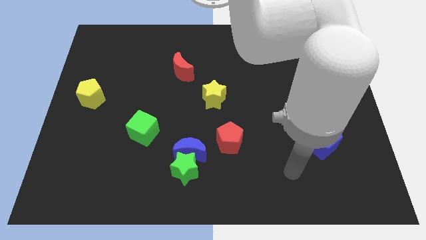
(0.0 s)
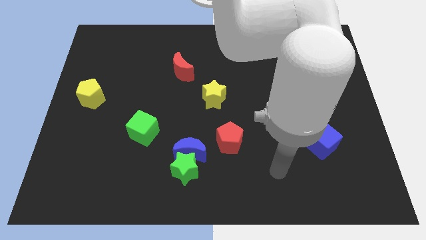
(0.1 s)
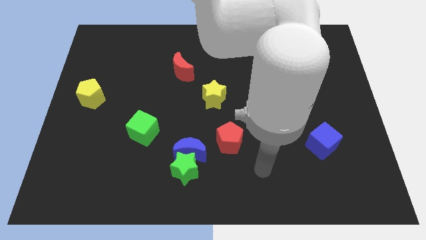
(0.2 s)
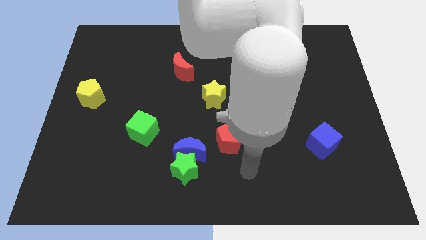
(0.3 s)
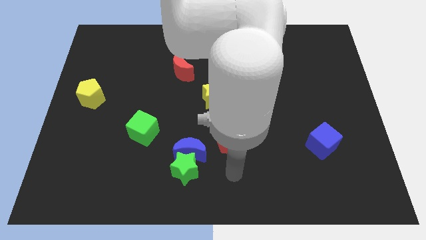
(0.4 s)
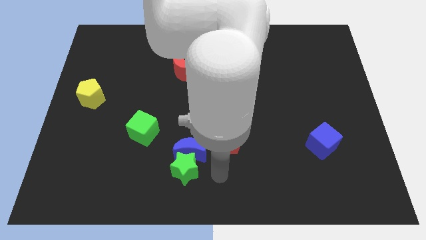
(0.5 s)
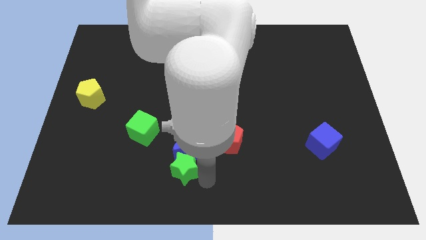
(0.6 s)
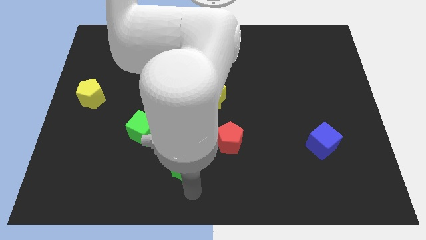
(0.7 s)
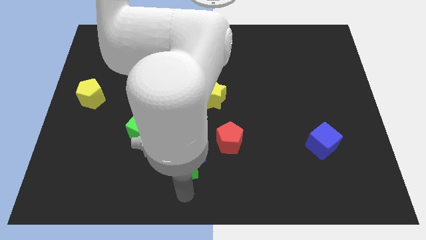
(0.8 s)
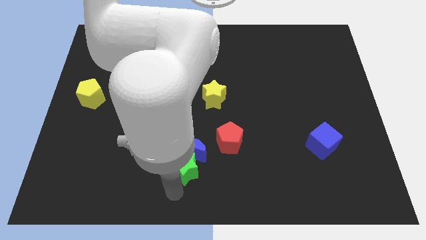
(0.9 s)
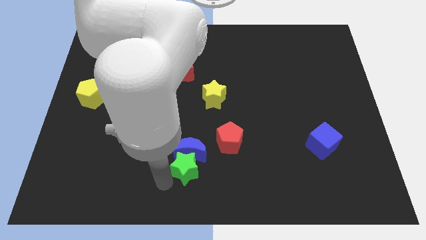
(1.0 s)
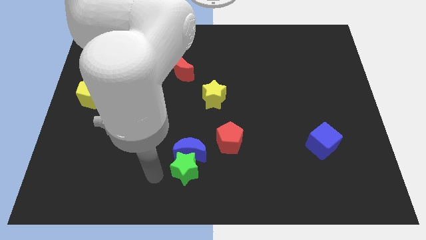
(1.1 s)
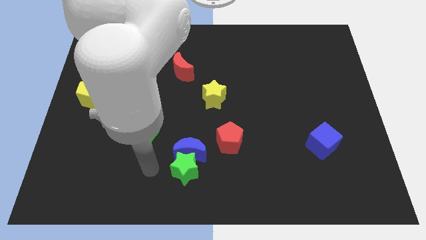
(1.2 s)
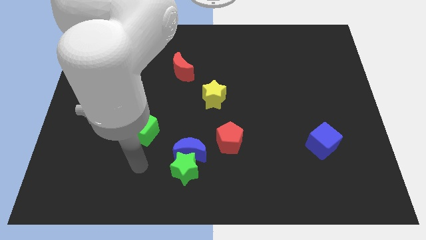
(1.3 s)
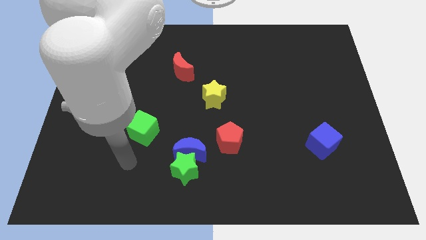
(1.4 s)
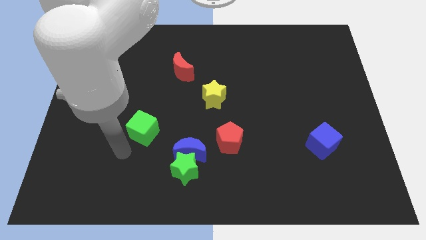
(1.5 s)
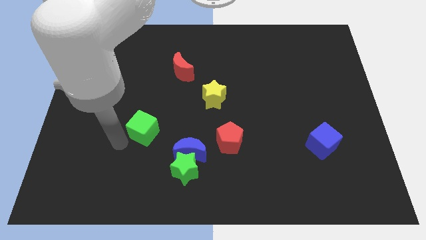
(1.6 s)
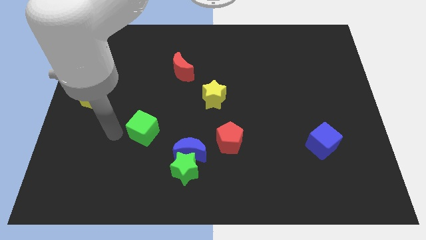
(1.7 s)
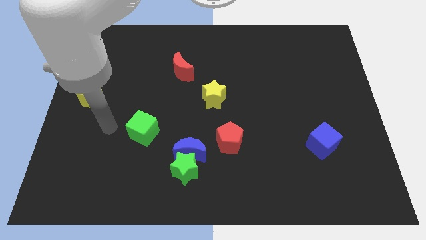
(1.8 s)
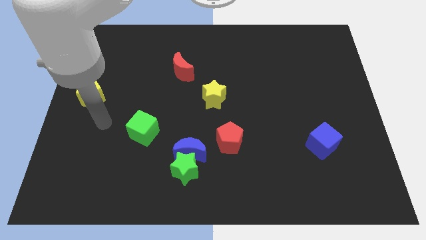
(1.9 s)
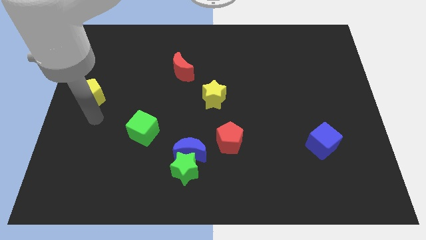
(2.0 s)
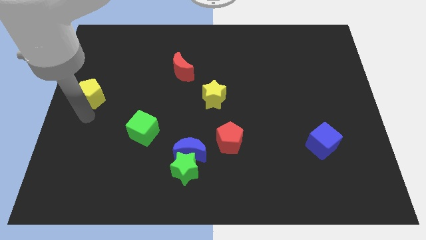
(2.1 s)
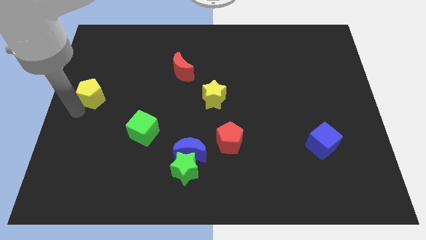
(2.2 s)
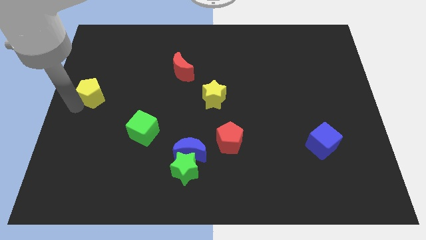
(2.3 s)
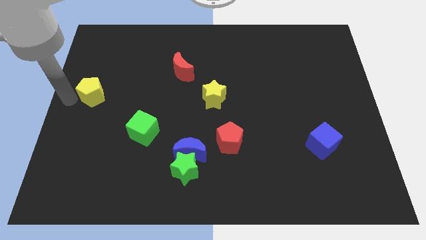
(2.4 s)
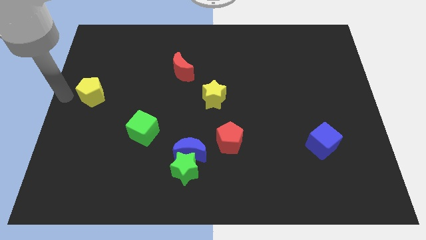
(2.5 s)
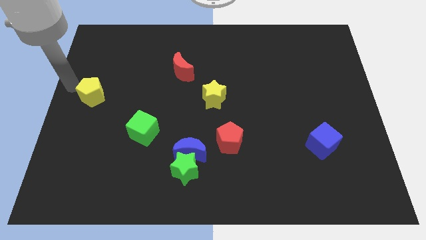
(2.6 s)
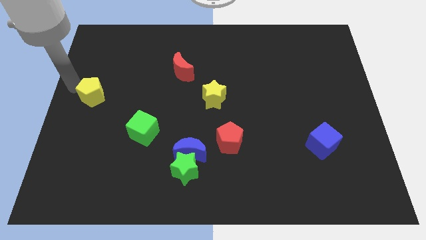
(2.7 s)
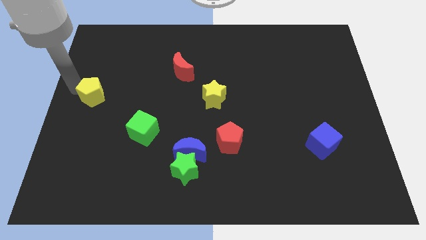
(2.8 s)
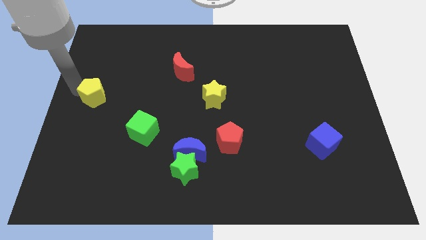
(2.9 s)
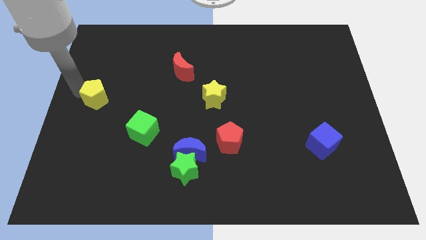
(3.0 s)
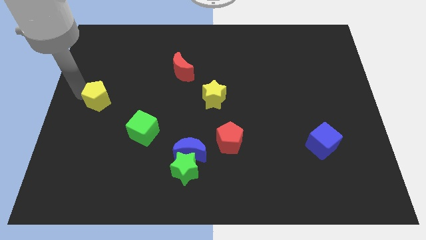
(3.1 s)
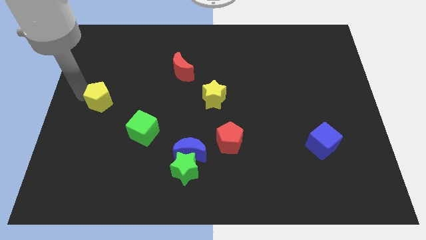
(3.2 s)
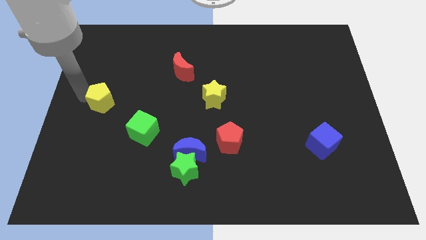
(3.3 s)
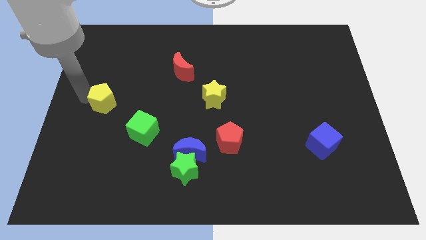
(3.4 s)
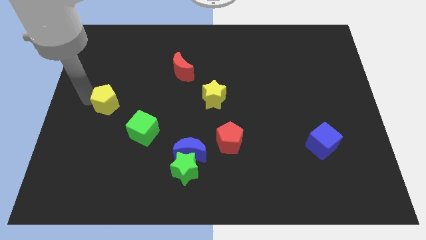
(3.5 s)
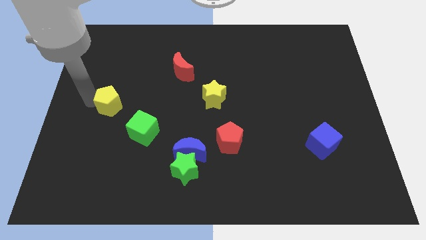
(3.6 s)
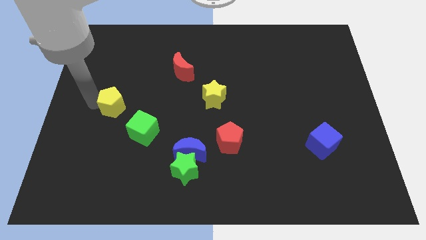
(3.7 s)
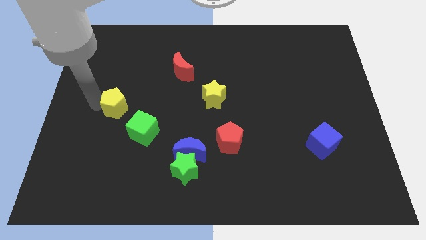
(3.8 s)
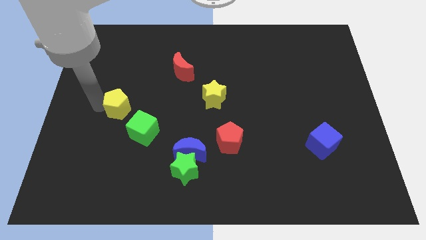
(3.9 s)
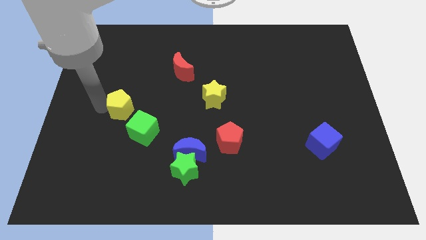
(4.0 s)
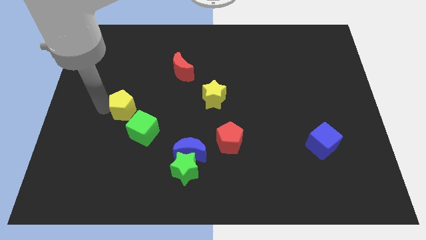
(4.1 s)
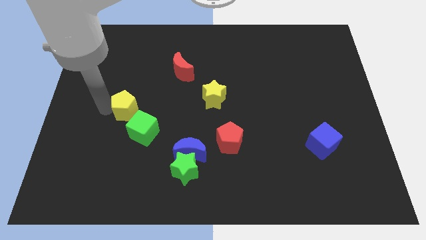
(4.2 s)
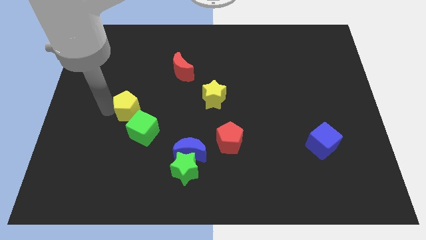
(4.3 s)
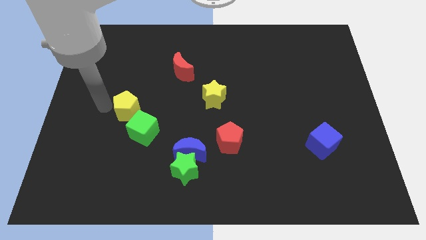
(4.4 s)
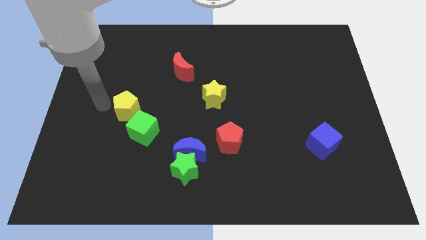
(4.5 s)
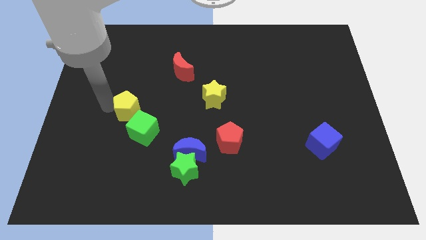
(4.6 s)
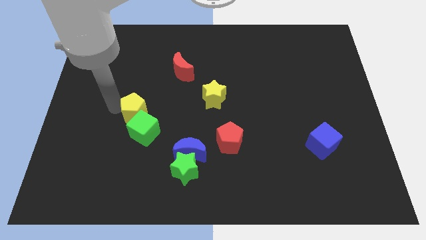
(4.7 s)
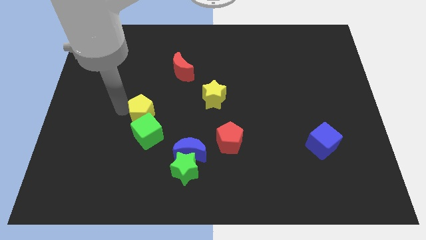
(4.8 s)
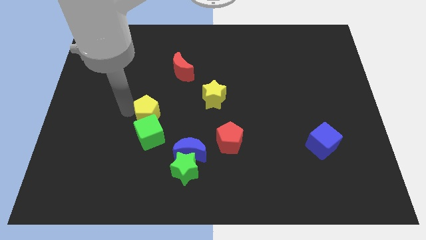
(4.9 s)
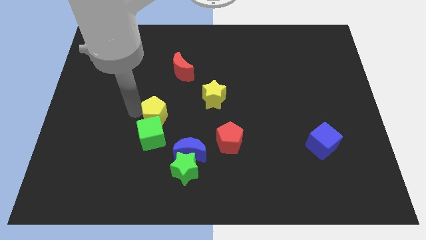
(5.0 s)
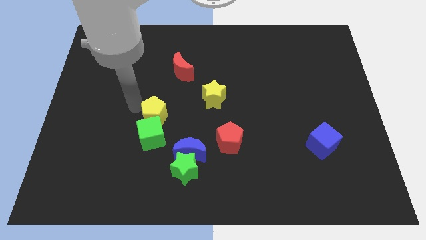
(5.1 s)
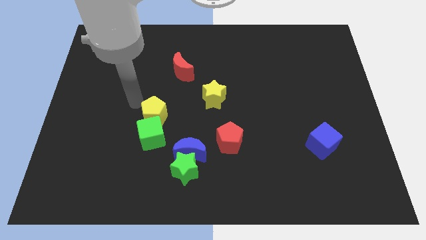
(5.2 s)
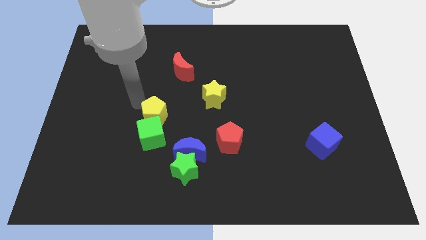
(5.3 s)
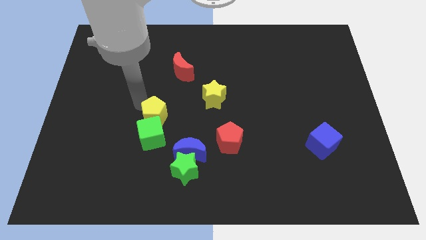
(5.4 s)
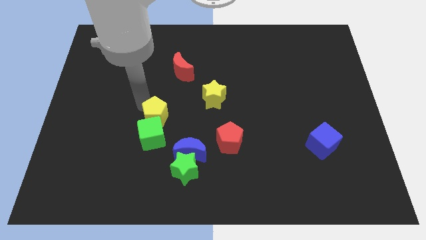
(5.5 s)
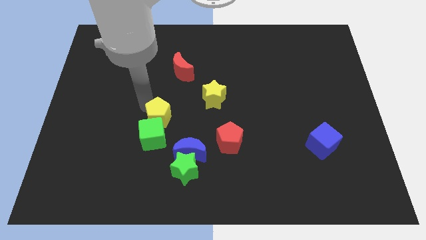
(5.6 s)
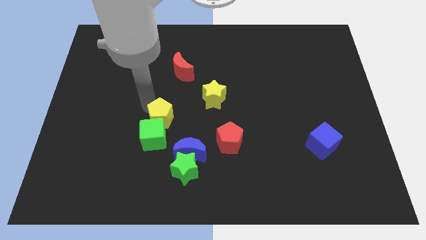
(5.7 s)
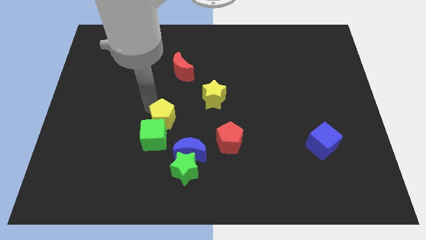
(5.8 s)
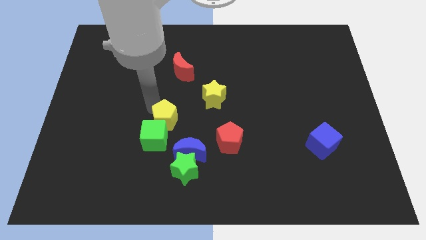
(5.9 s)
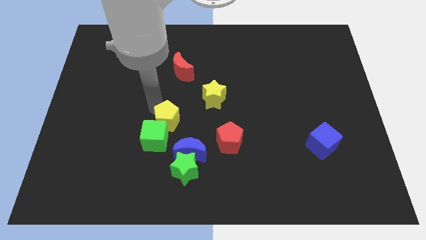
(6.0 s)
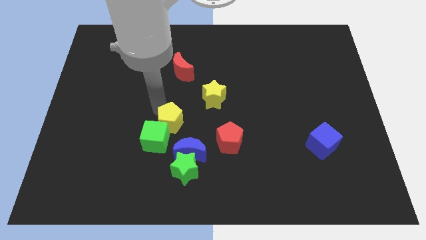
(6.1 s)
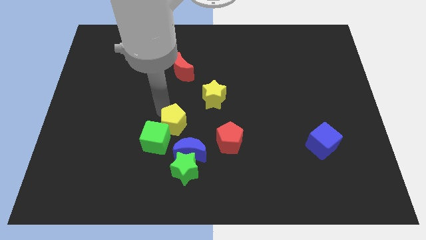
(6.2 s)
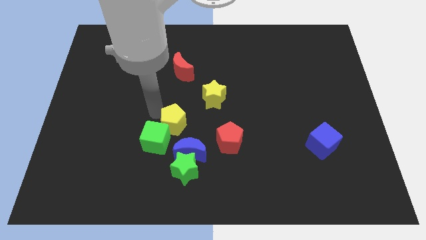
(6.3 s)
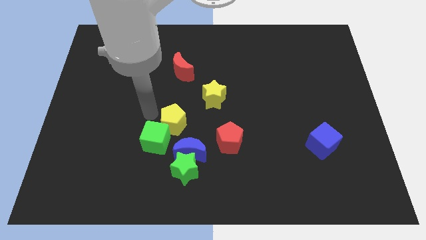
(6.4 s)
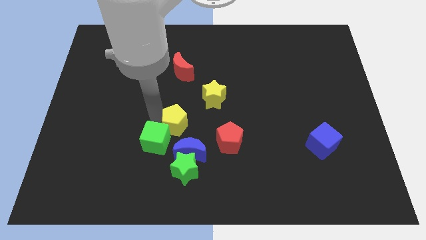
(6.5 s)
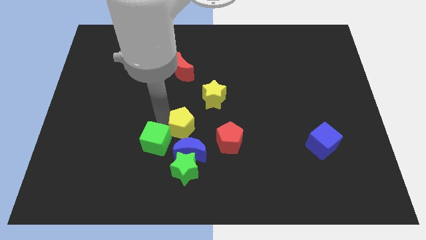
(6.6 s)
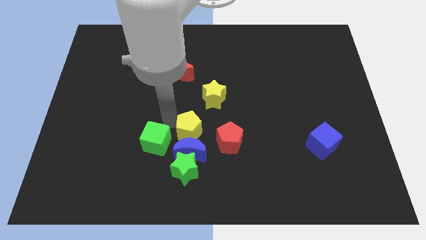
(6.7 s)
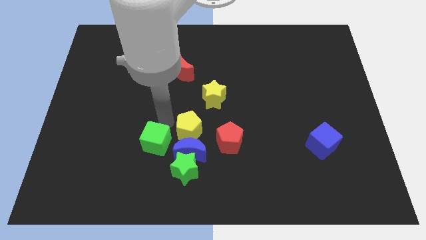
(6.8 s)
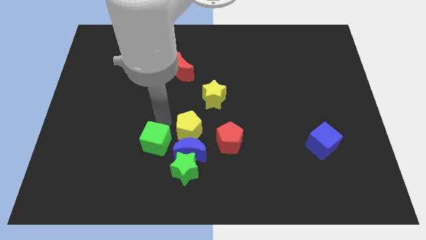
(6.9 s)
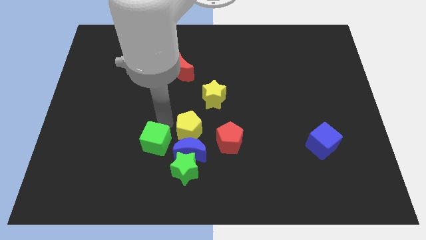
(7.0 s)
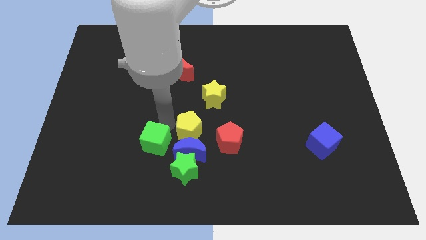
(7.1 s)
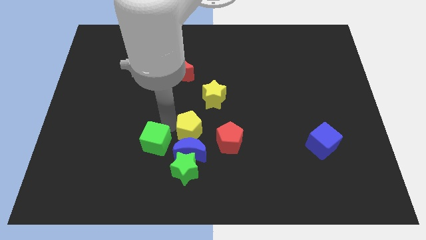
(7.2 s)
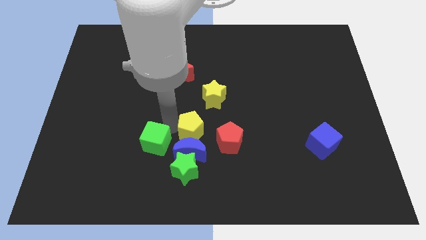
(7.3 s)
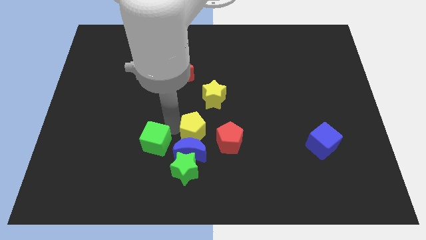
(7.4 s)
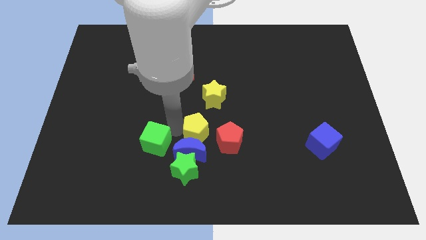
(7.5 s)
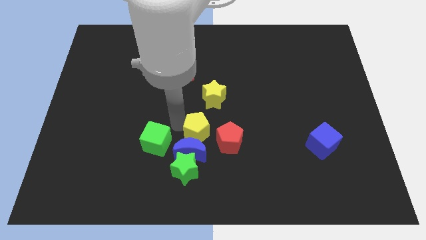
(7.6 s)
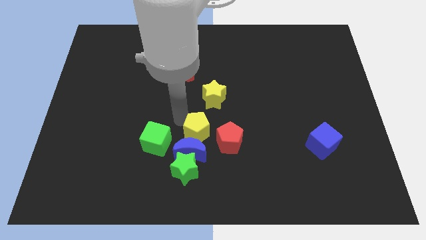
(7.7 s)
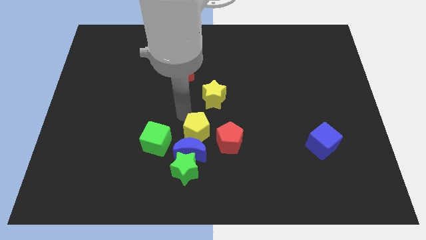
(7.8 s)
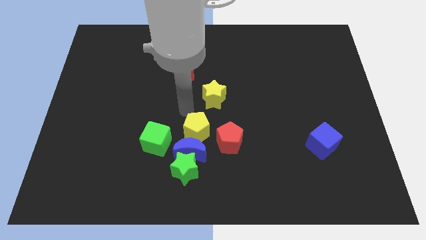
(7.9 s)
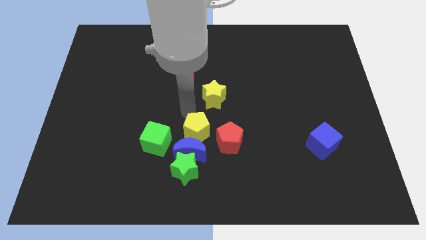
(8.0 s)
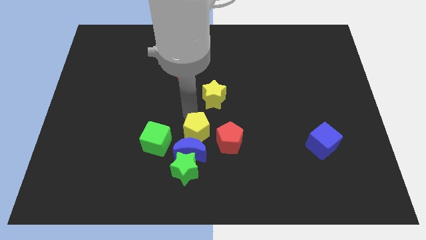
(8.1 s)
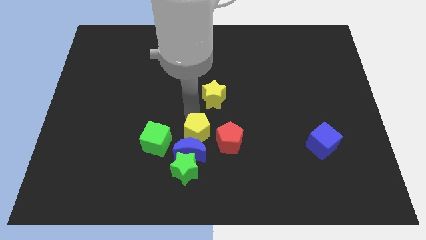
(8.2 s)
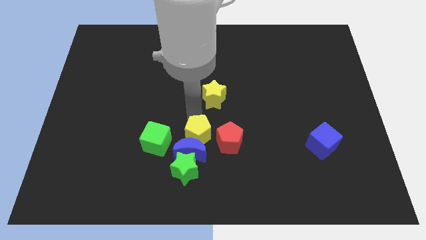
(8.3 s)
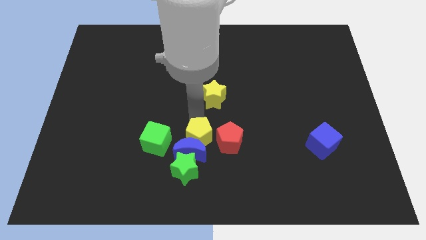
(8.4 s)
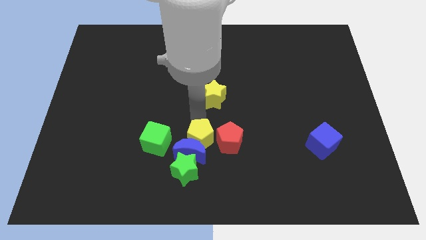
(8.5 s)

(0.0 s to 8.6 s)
move the yellow pentagon just right of the blue moon
